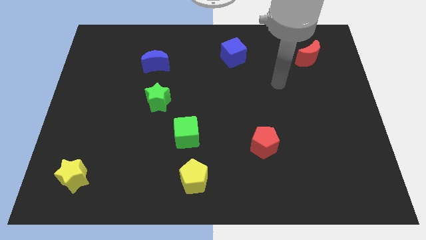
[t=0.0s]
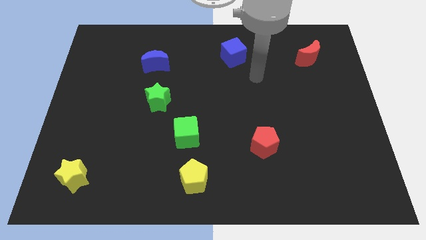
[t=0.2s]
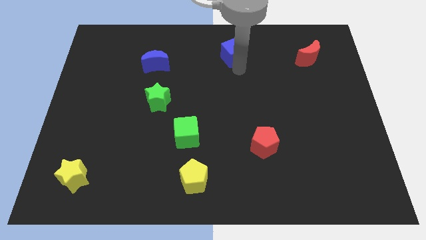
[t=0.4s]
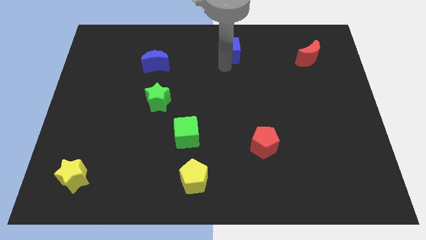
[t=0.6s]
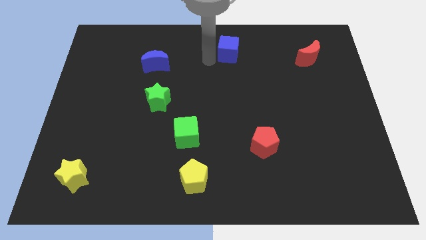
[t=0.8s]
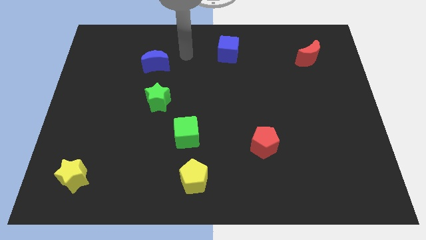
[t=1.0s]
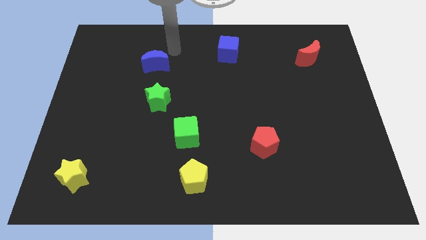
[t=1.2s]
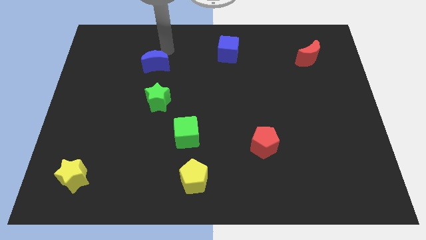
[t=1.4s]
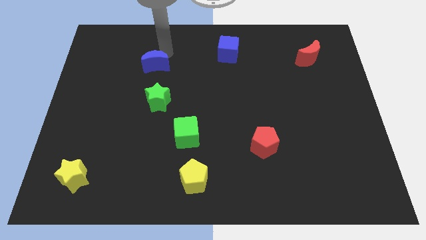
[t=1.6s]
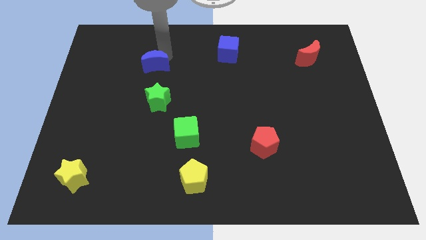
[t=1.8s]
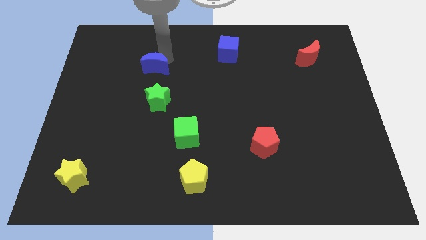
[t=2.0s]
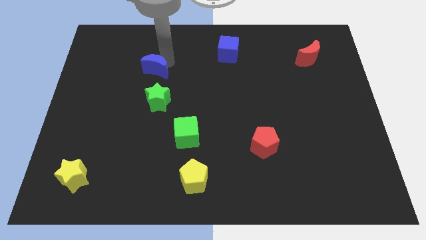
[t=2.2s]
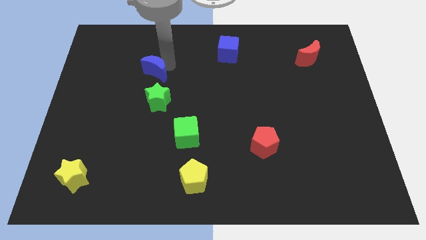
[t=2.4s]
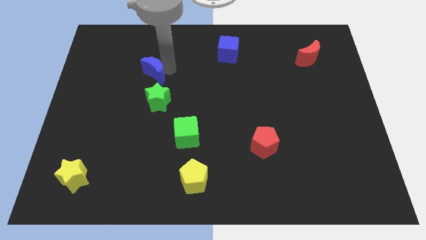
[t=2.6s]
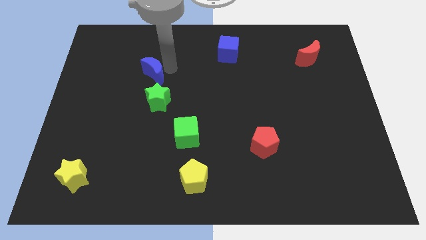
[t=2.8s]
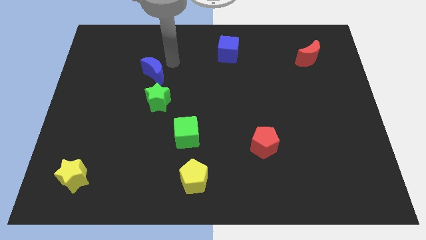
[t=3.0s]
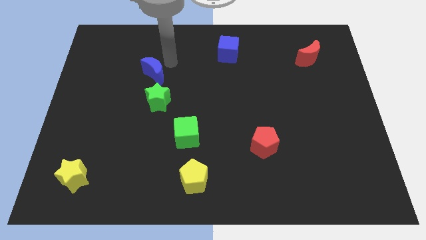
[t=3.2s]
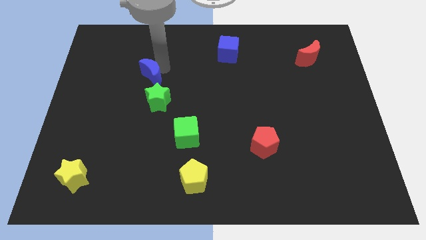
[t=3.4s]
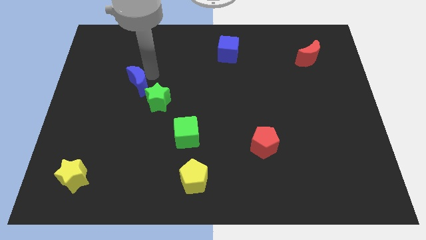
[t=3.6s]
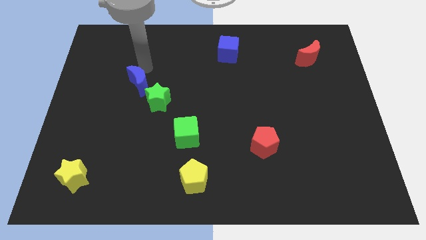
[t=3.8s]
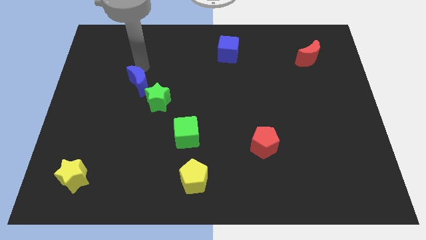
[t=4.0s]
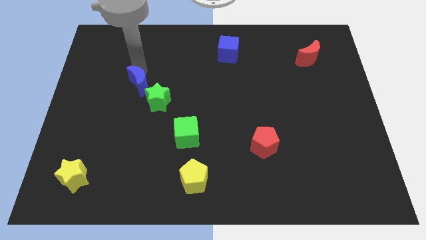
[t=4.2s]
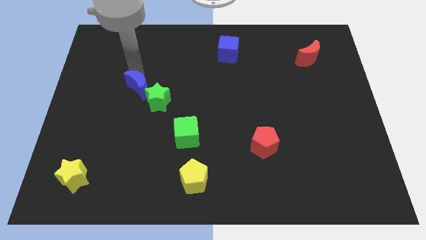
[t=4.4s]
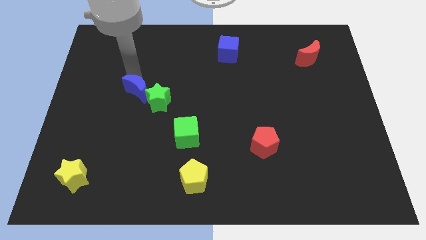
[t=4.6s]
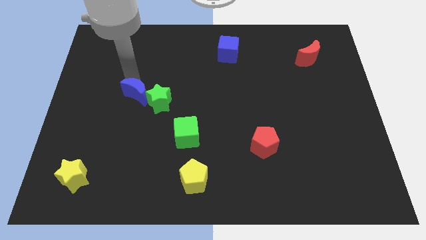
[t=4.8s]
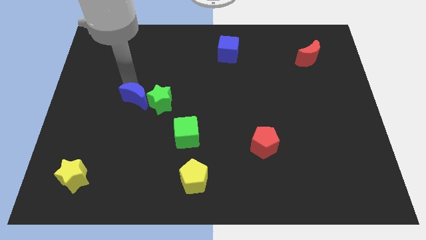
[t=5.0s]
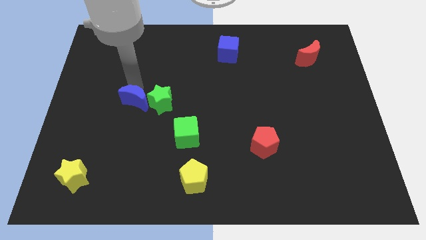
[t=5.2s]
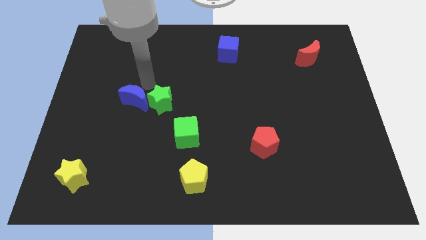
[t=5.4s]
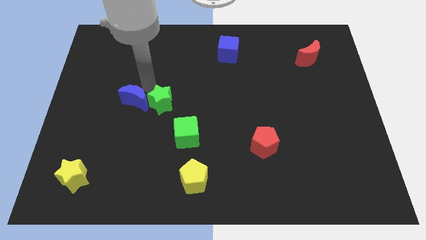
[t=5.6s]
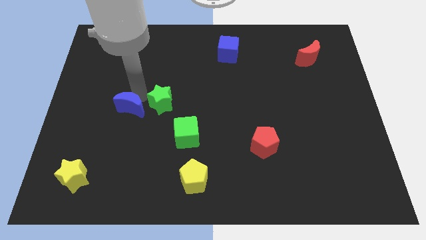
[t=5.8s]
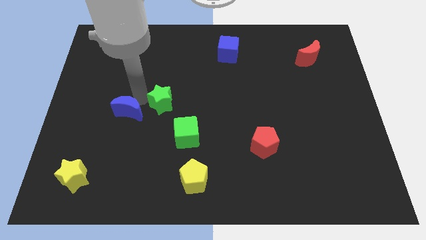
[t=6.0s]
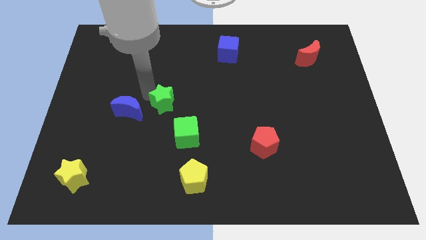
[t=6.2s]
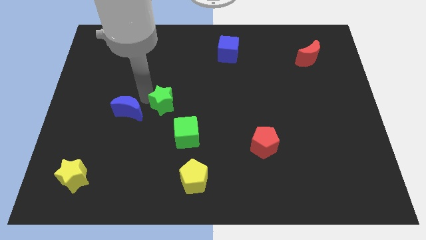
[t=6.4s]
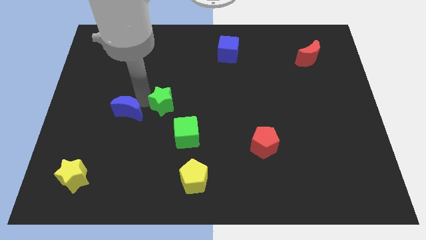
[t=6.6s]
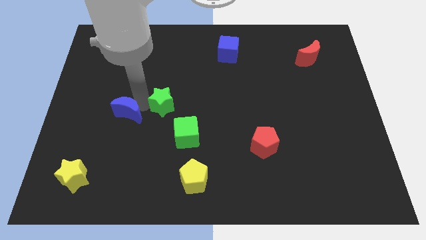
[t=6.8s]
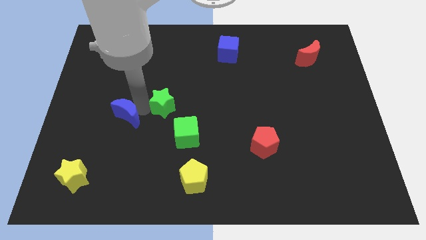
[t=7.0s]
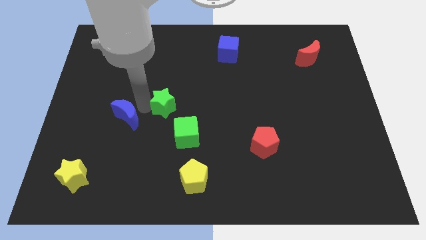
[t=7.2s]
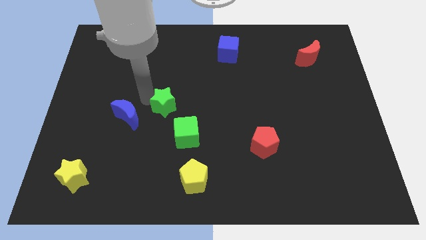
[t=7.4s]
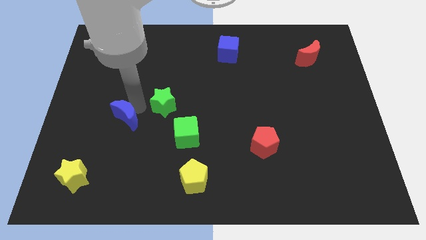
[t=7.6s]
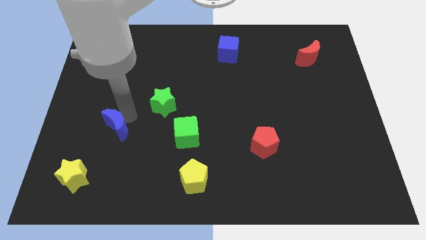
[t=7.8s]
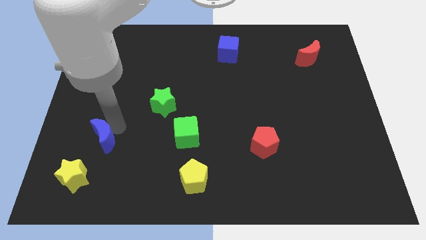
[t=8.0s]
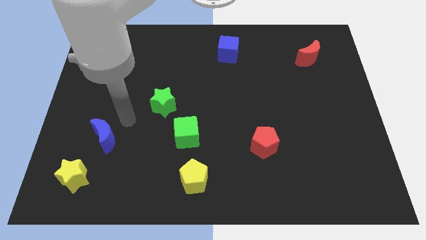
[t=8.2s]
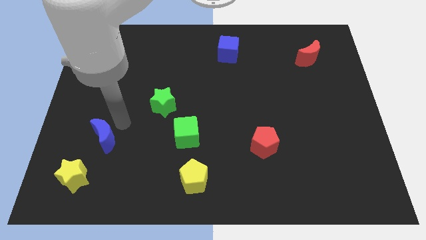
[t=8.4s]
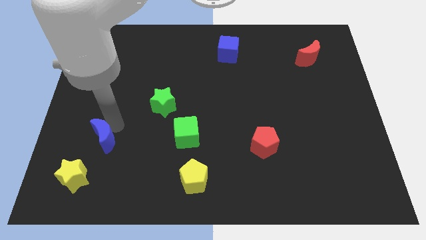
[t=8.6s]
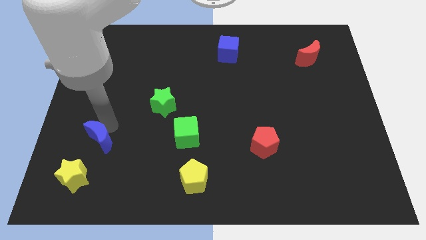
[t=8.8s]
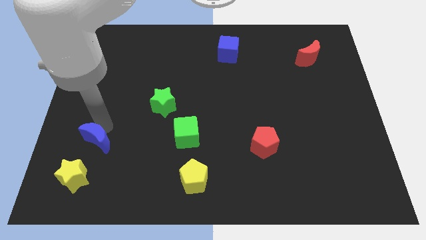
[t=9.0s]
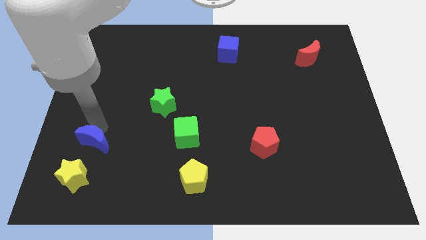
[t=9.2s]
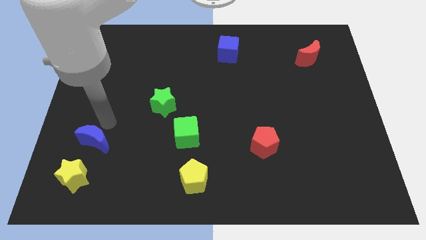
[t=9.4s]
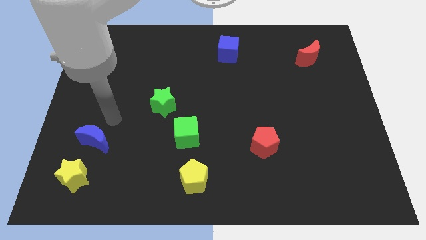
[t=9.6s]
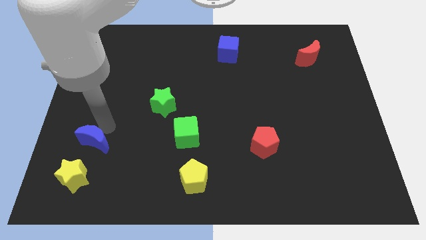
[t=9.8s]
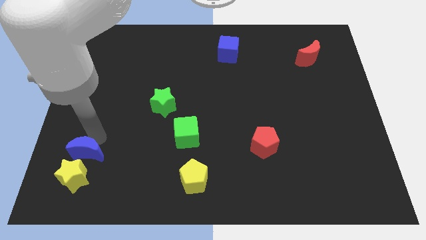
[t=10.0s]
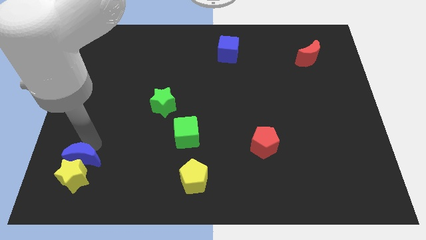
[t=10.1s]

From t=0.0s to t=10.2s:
put the blue moon to the yellow star

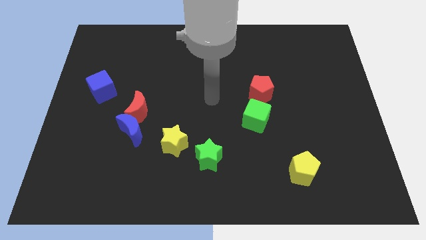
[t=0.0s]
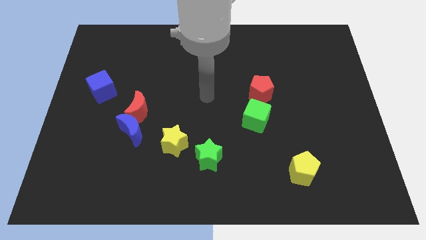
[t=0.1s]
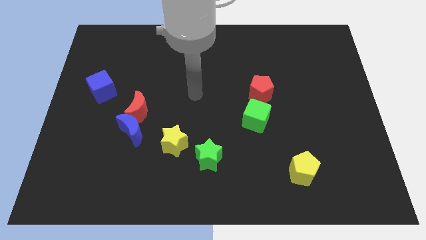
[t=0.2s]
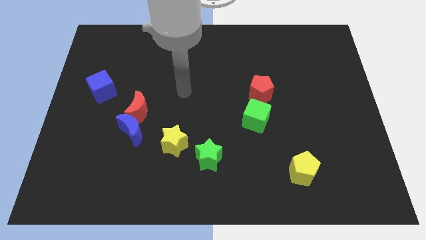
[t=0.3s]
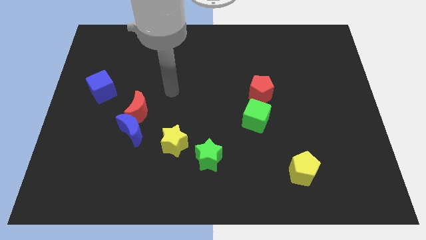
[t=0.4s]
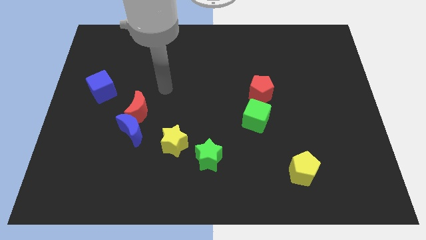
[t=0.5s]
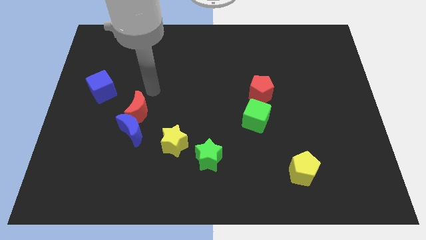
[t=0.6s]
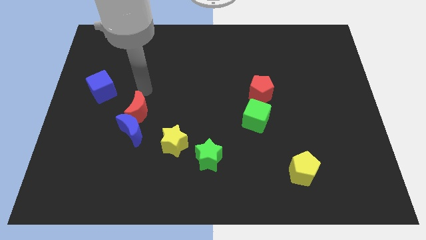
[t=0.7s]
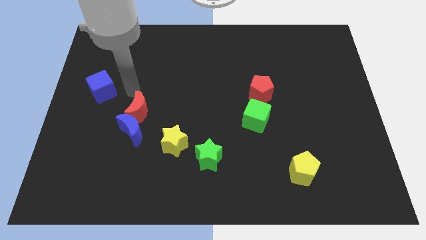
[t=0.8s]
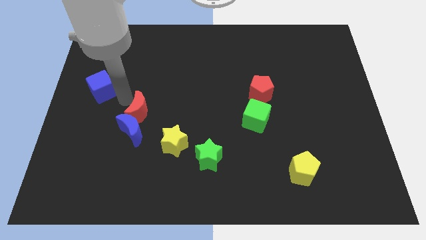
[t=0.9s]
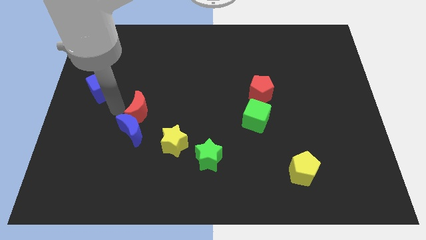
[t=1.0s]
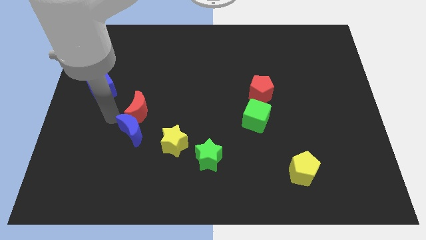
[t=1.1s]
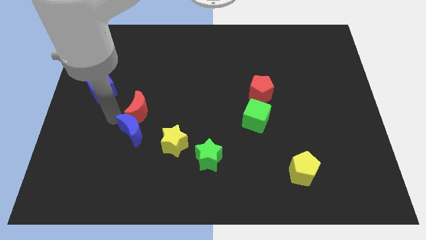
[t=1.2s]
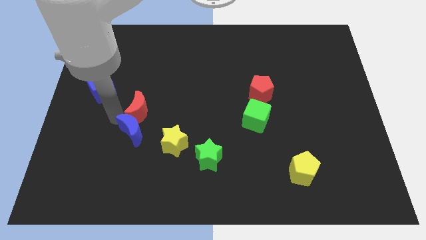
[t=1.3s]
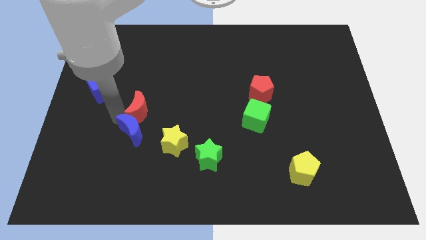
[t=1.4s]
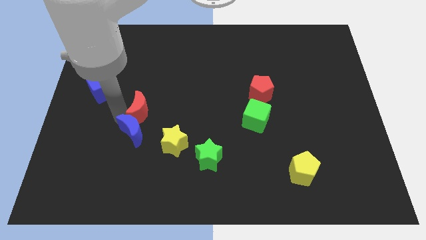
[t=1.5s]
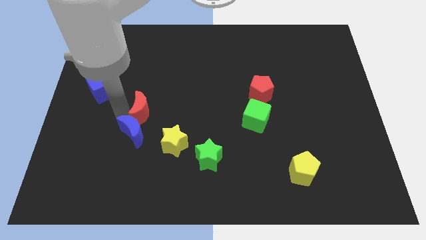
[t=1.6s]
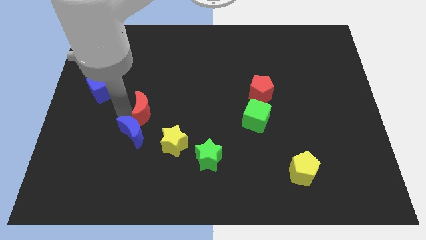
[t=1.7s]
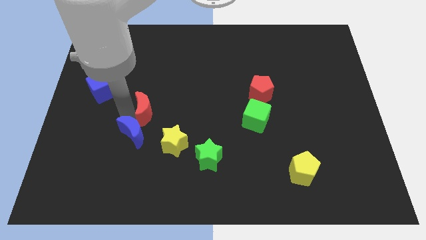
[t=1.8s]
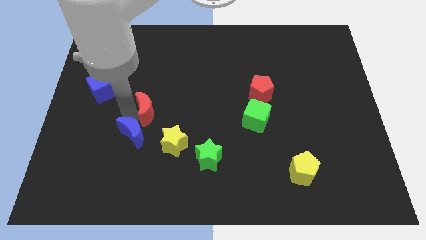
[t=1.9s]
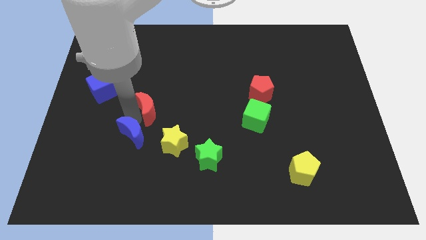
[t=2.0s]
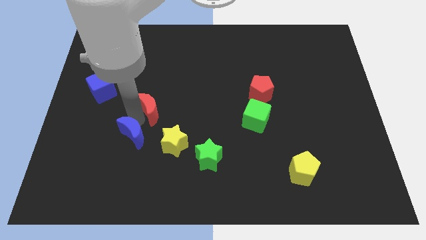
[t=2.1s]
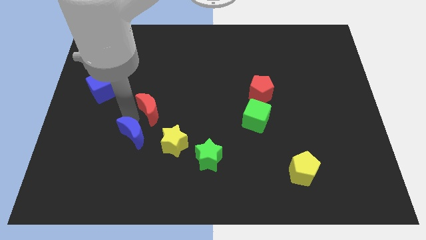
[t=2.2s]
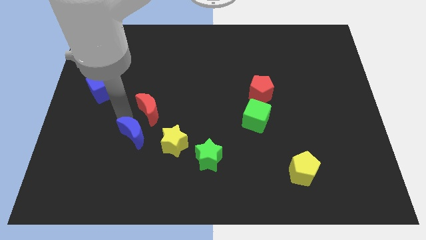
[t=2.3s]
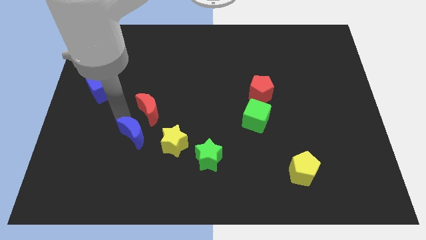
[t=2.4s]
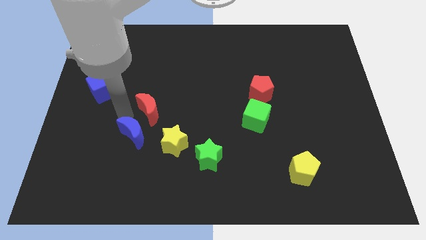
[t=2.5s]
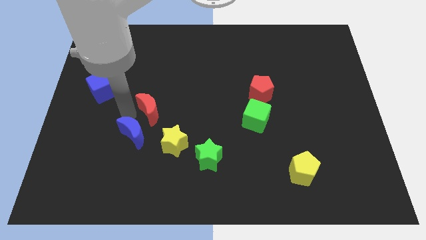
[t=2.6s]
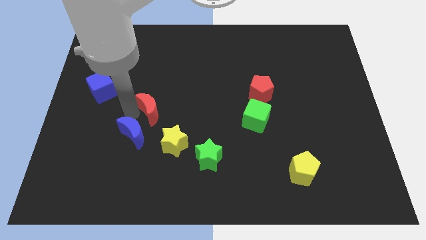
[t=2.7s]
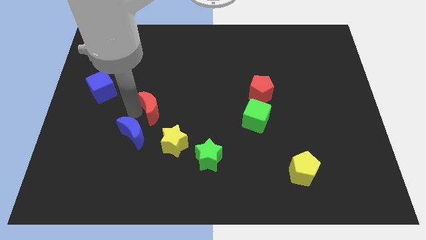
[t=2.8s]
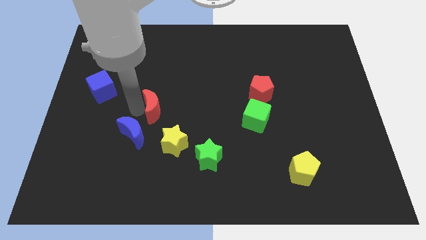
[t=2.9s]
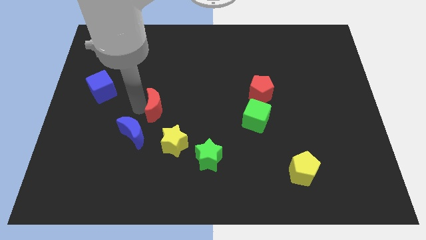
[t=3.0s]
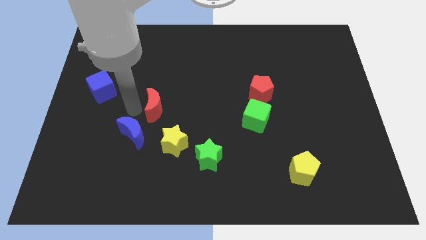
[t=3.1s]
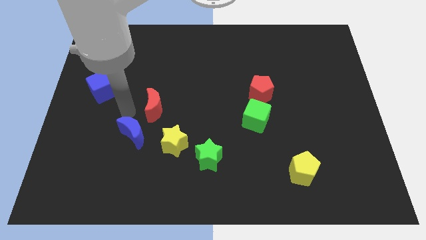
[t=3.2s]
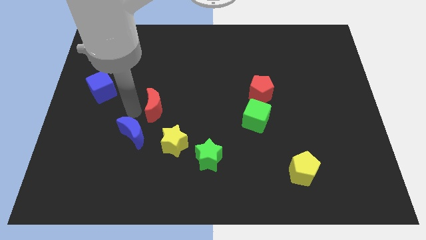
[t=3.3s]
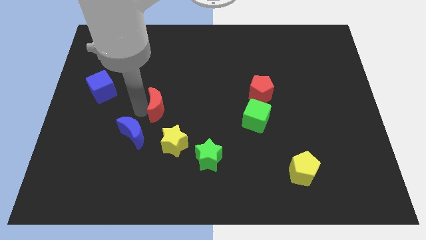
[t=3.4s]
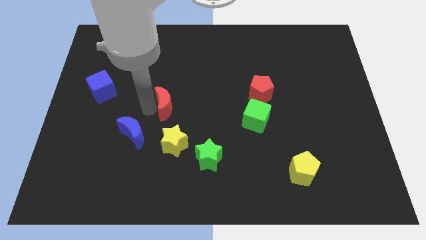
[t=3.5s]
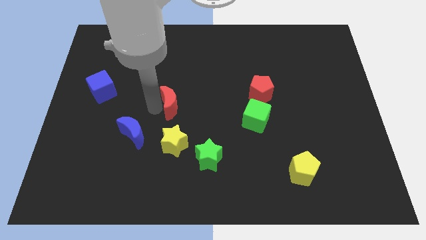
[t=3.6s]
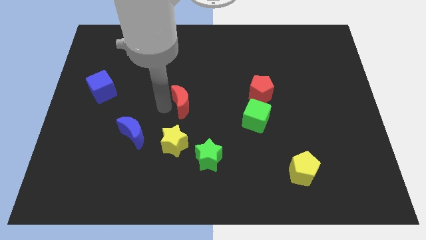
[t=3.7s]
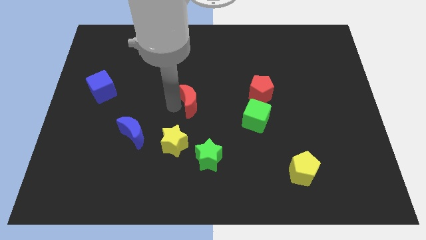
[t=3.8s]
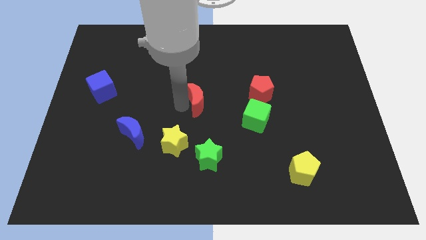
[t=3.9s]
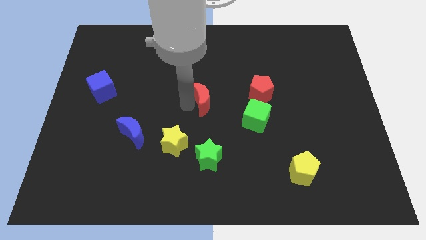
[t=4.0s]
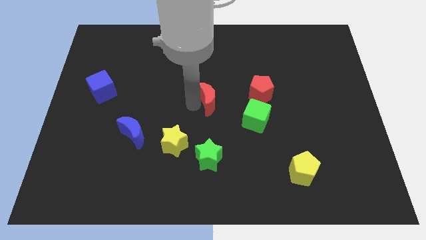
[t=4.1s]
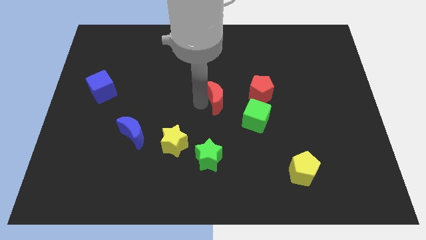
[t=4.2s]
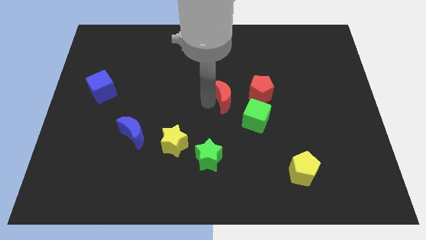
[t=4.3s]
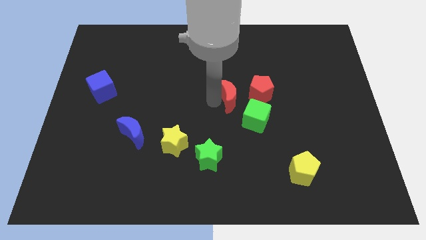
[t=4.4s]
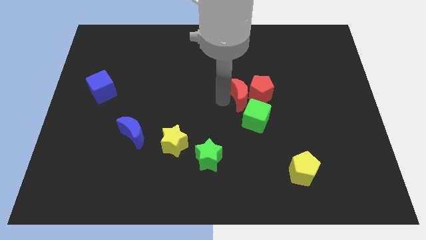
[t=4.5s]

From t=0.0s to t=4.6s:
push the red moon next to the red pentagon
